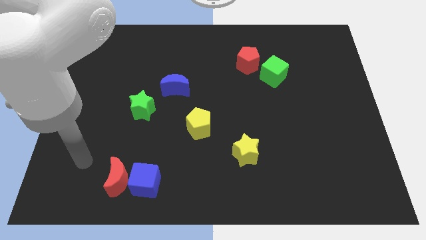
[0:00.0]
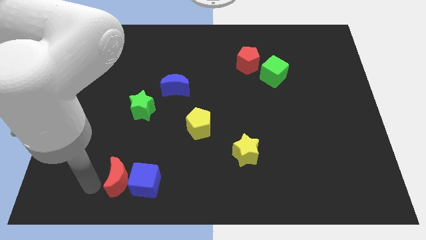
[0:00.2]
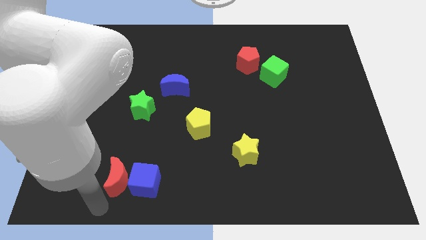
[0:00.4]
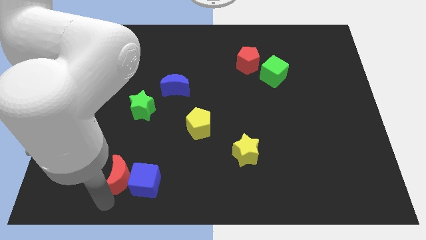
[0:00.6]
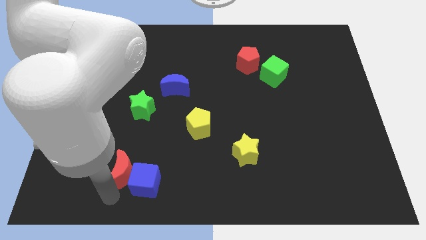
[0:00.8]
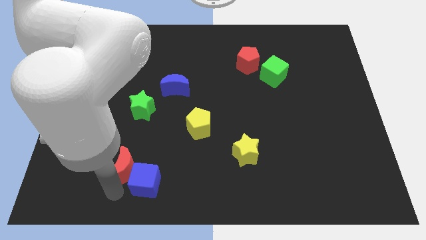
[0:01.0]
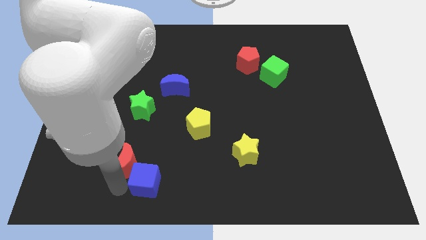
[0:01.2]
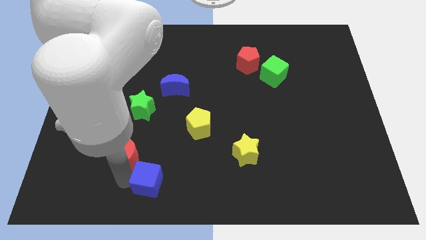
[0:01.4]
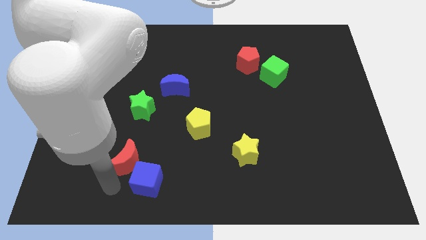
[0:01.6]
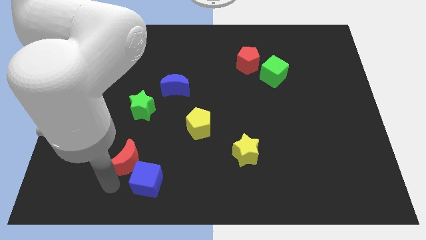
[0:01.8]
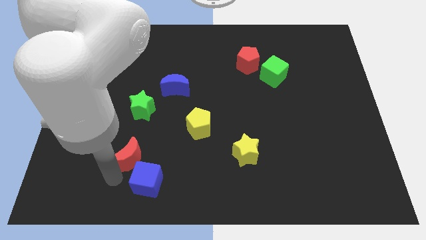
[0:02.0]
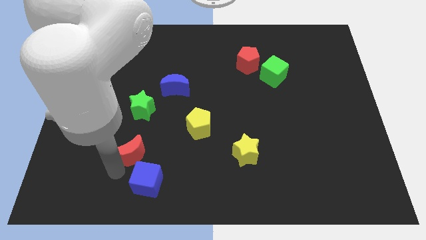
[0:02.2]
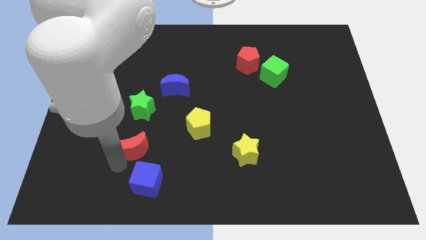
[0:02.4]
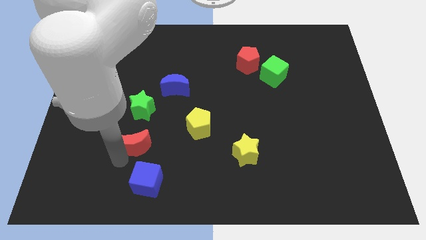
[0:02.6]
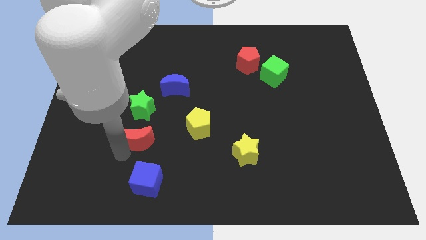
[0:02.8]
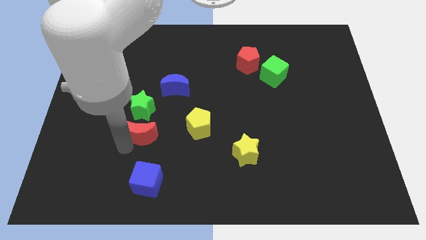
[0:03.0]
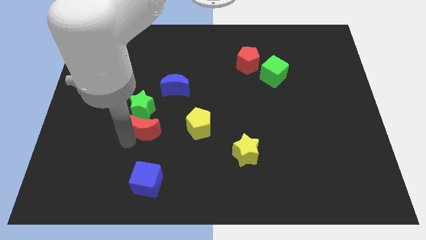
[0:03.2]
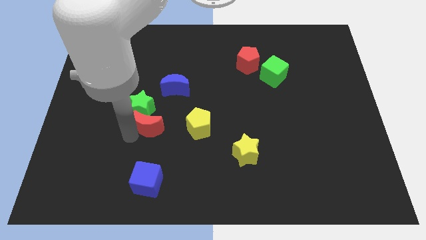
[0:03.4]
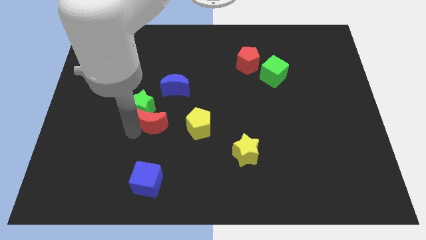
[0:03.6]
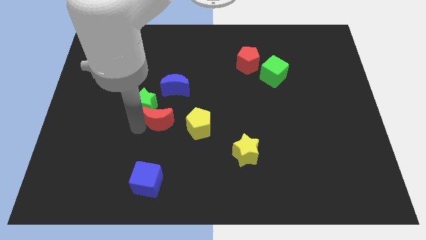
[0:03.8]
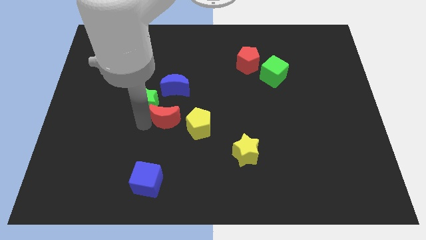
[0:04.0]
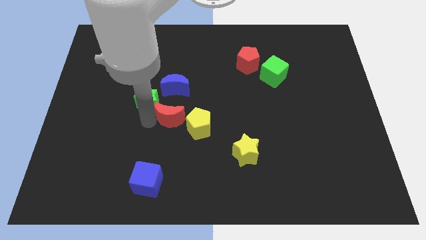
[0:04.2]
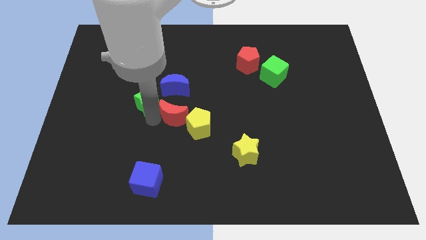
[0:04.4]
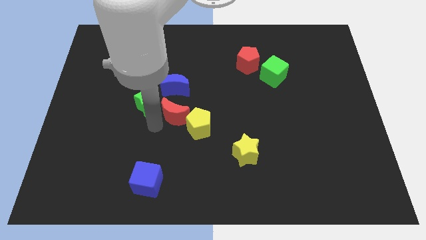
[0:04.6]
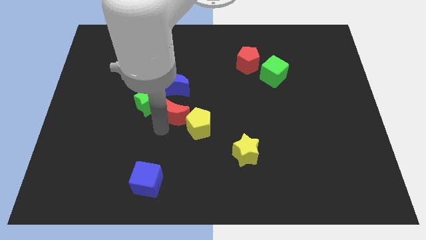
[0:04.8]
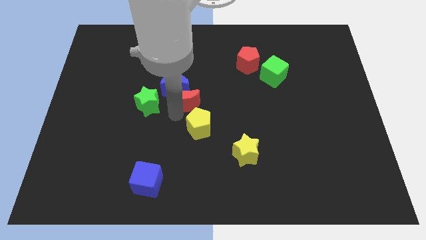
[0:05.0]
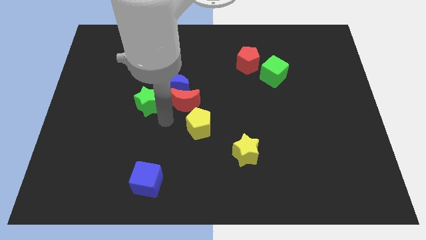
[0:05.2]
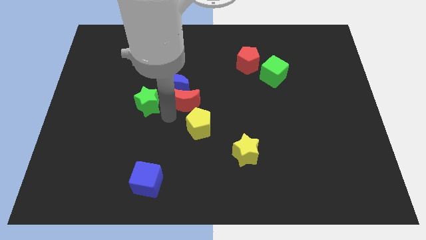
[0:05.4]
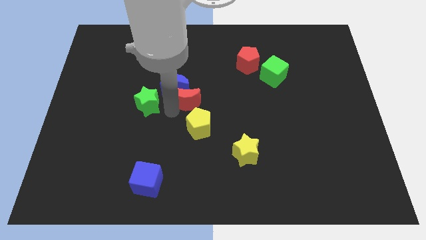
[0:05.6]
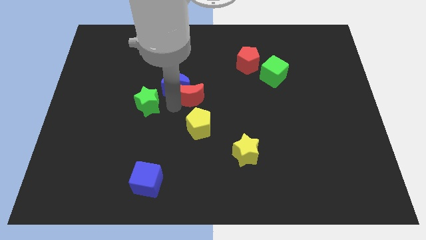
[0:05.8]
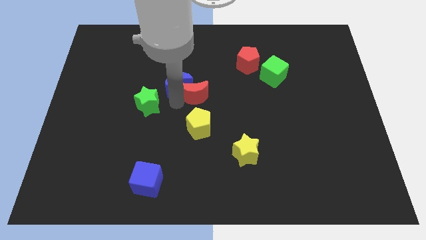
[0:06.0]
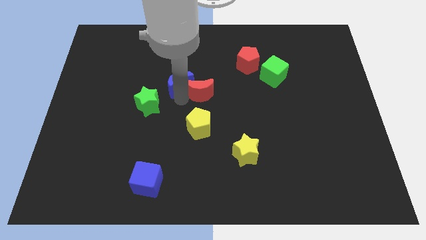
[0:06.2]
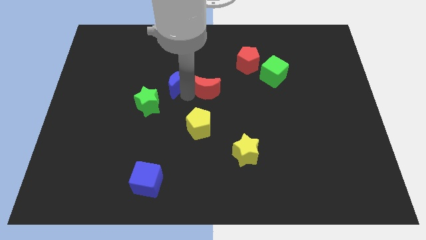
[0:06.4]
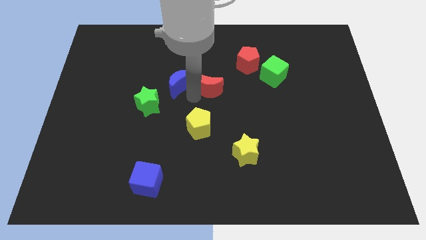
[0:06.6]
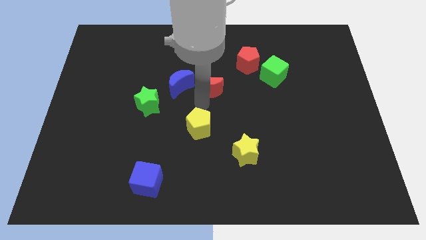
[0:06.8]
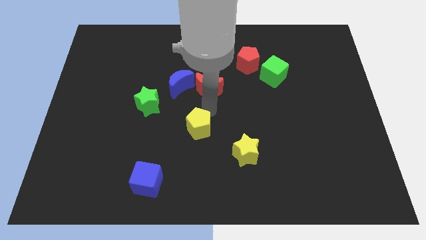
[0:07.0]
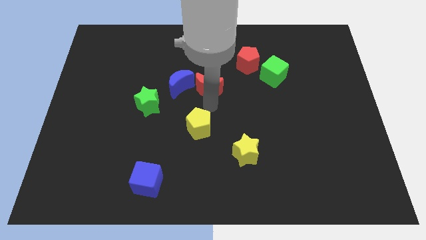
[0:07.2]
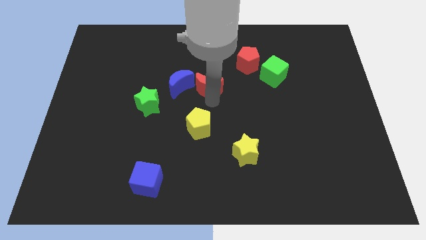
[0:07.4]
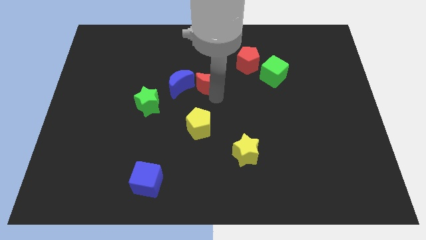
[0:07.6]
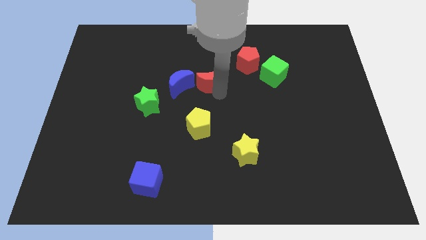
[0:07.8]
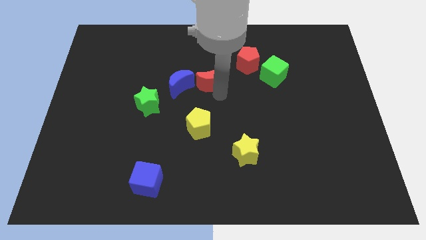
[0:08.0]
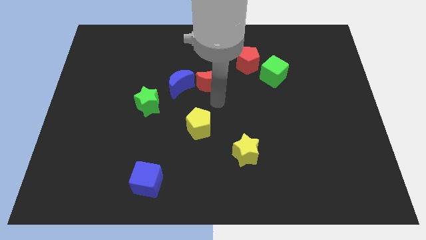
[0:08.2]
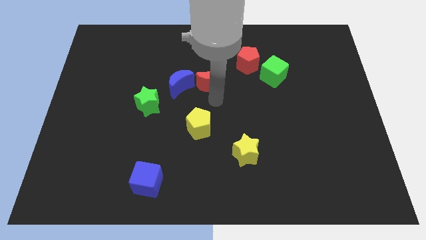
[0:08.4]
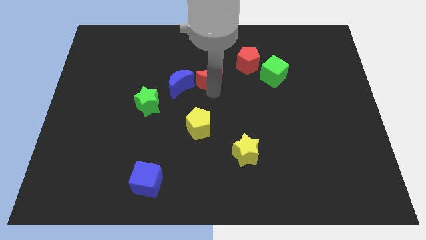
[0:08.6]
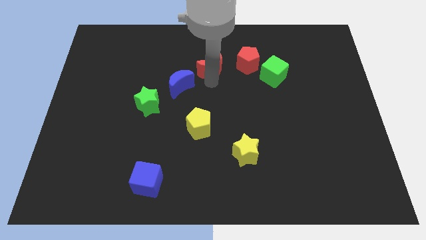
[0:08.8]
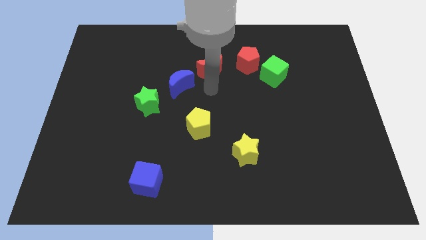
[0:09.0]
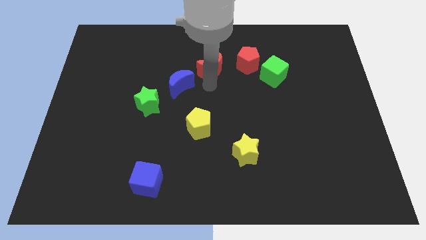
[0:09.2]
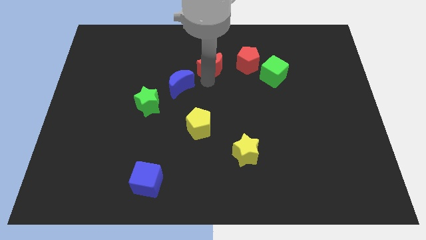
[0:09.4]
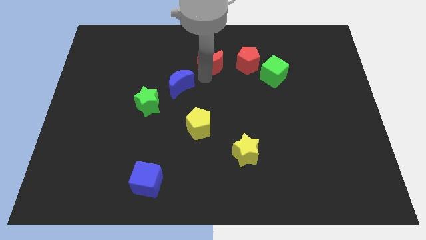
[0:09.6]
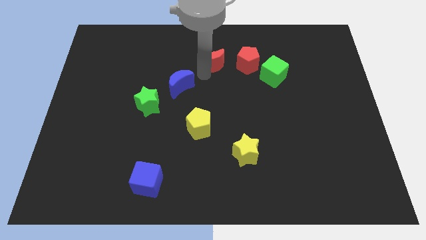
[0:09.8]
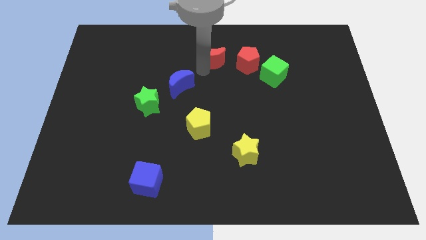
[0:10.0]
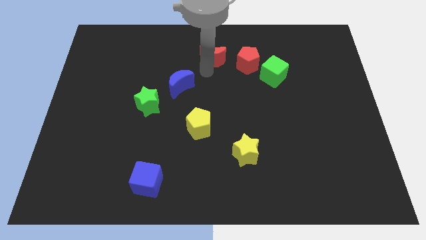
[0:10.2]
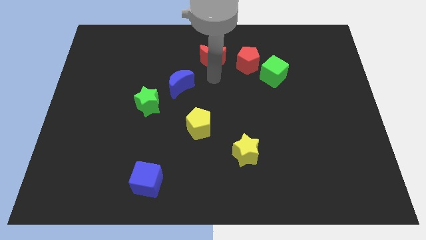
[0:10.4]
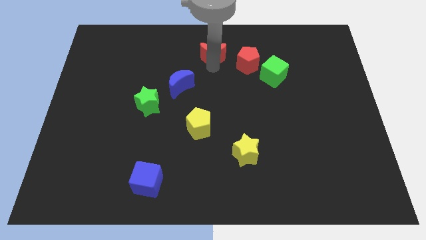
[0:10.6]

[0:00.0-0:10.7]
put the red moon to the top

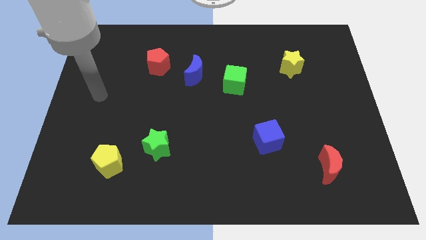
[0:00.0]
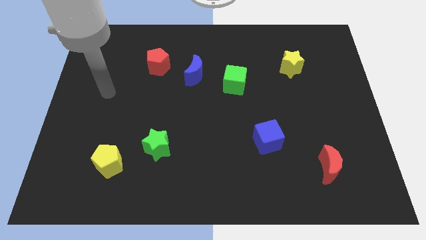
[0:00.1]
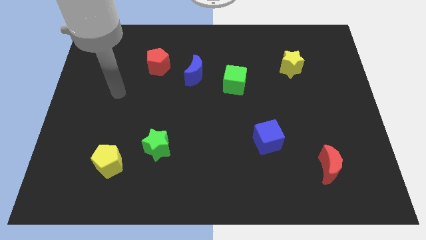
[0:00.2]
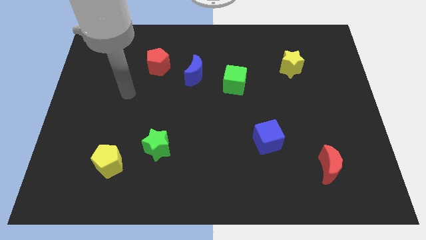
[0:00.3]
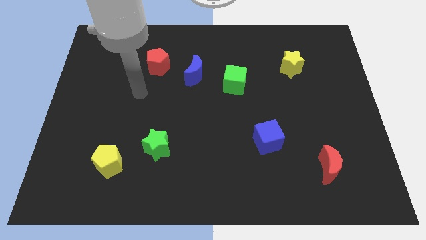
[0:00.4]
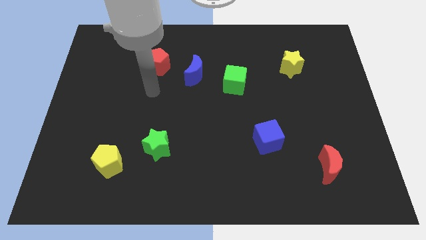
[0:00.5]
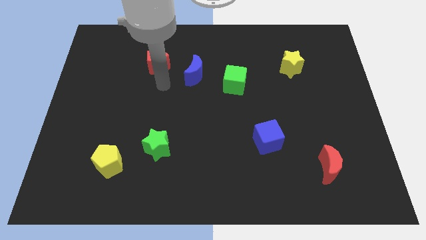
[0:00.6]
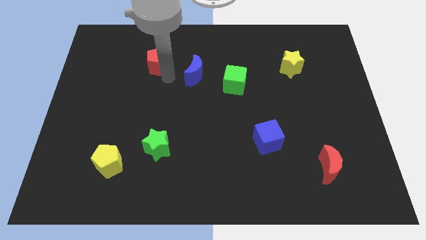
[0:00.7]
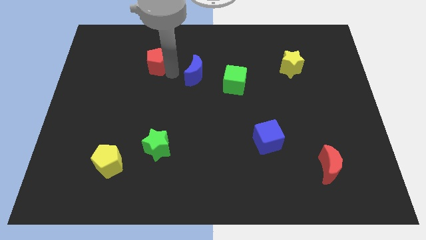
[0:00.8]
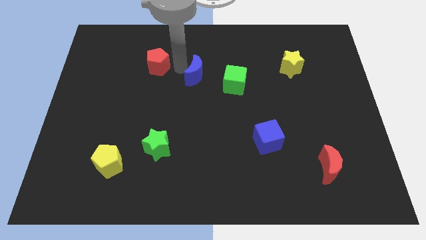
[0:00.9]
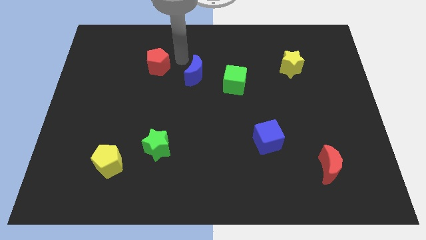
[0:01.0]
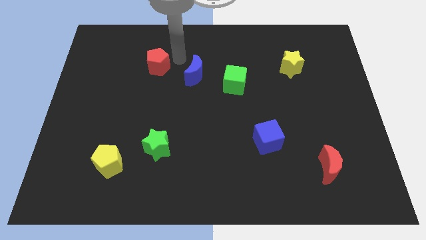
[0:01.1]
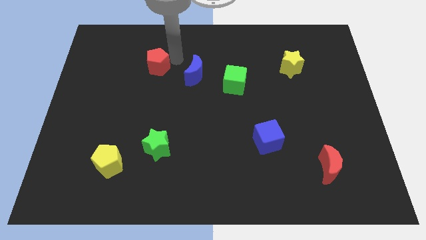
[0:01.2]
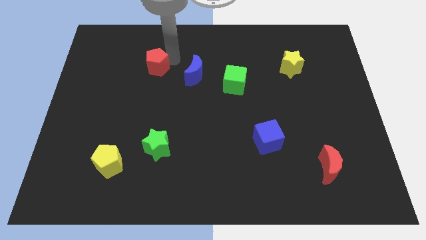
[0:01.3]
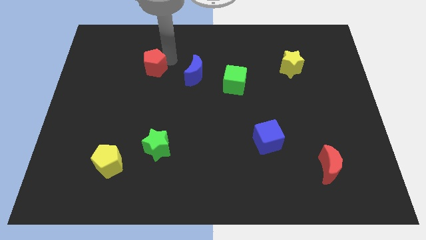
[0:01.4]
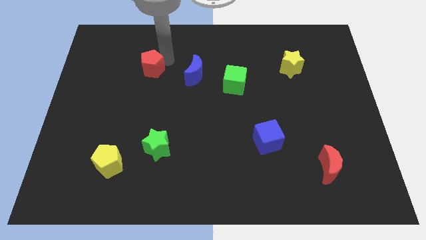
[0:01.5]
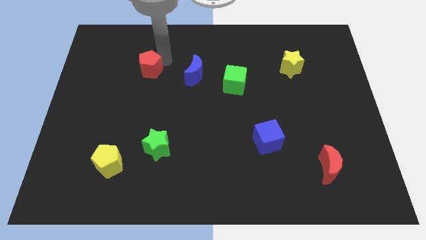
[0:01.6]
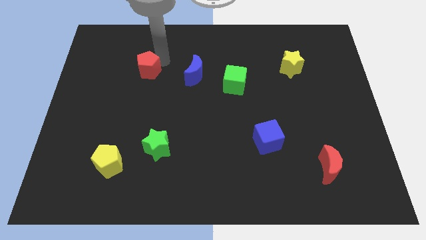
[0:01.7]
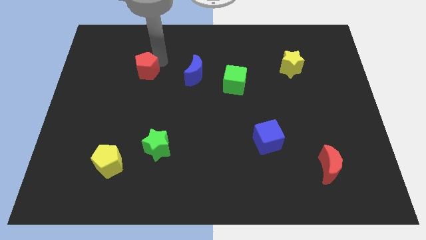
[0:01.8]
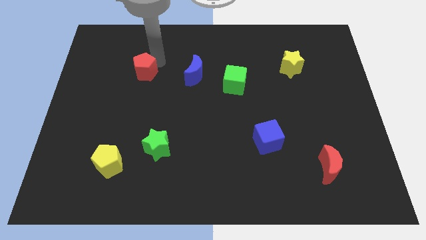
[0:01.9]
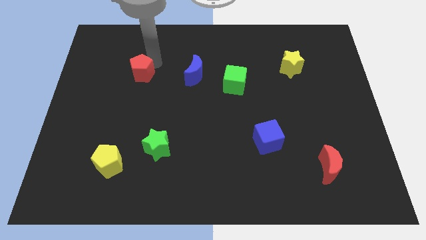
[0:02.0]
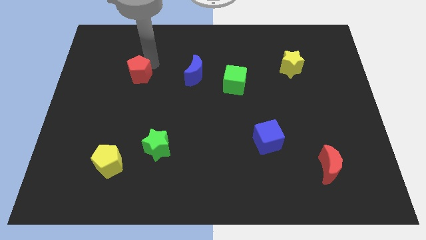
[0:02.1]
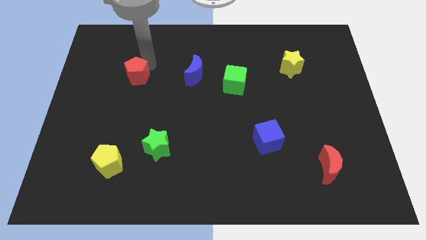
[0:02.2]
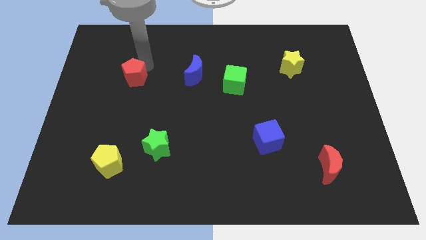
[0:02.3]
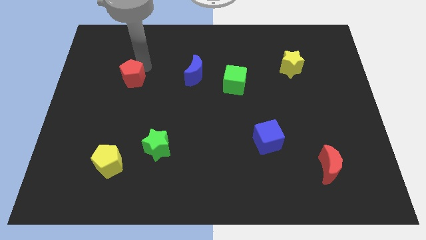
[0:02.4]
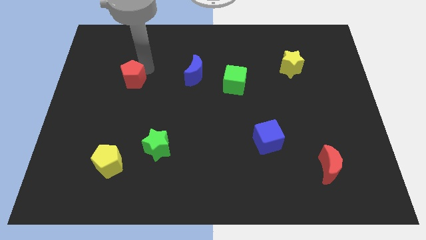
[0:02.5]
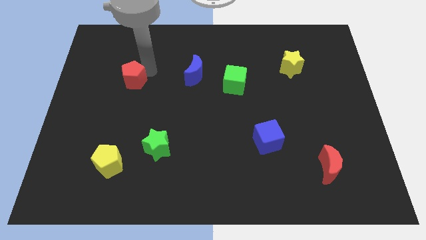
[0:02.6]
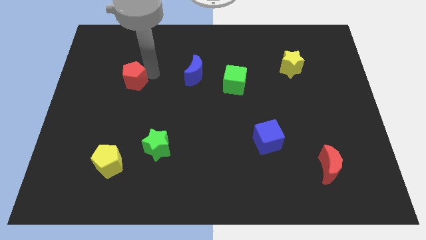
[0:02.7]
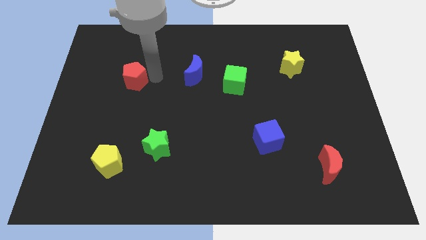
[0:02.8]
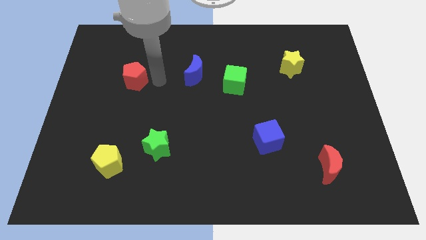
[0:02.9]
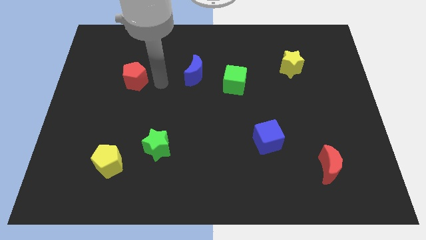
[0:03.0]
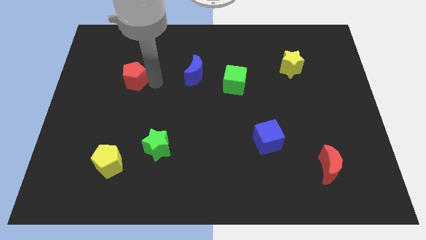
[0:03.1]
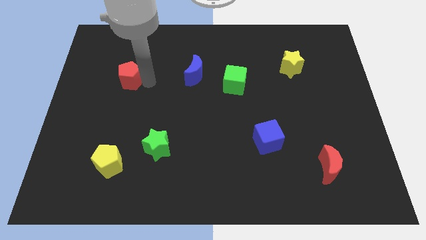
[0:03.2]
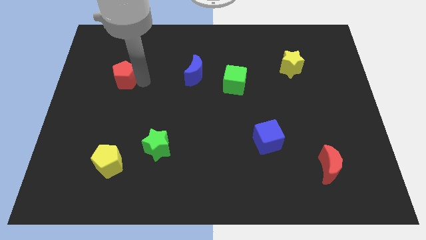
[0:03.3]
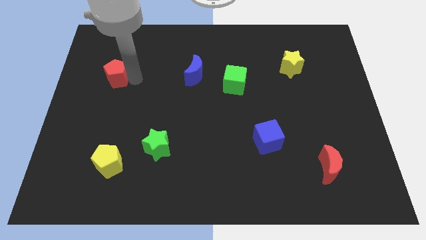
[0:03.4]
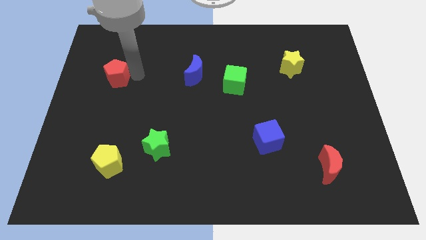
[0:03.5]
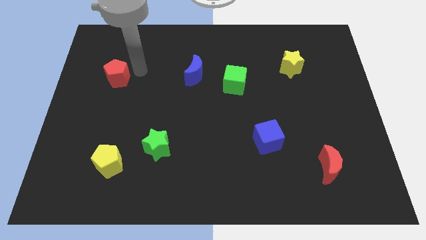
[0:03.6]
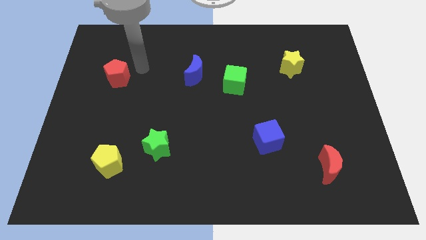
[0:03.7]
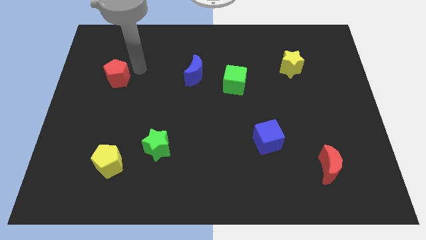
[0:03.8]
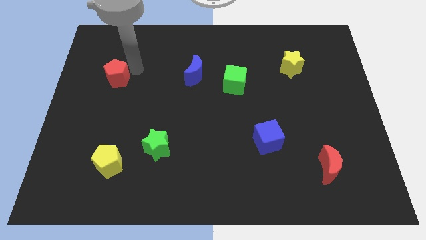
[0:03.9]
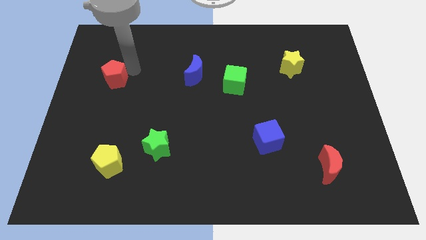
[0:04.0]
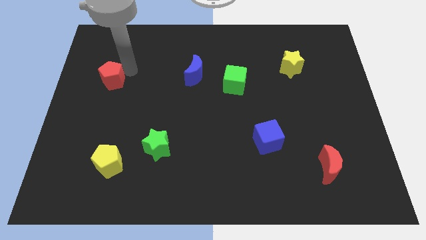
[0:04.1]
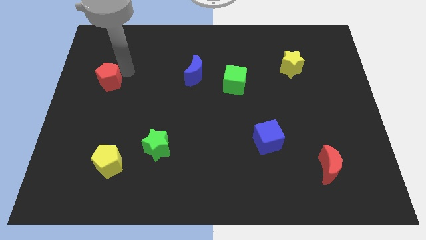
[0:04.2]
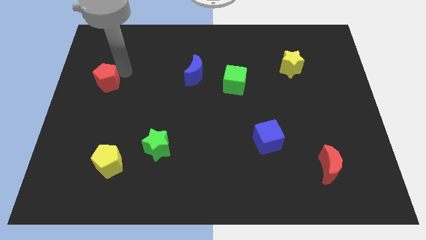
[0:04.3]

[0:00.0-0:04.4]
put the red pentagon to the left side of the board
